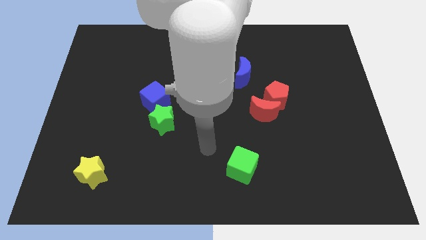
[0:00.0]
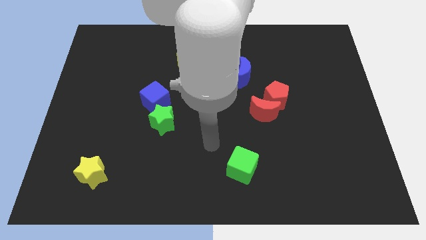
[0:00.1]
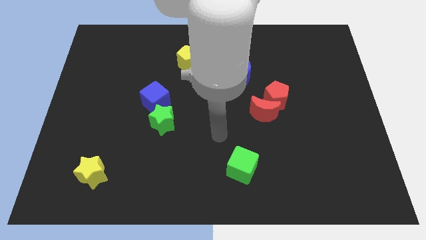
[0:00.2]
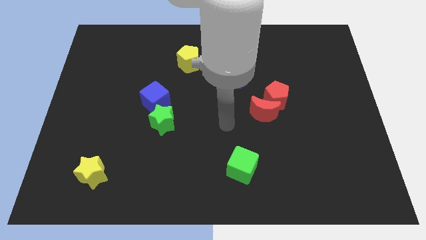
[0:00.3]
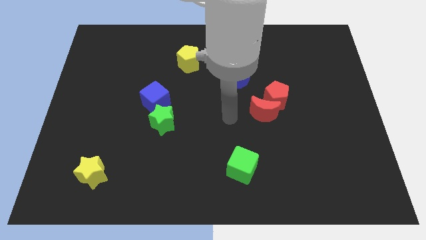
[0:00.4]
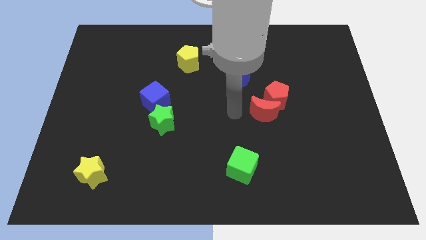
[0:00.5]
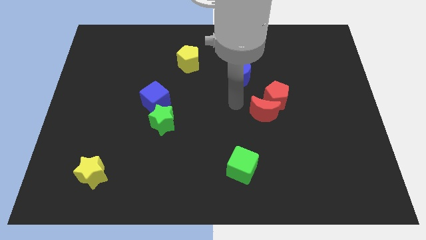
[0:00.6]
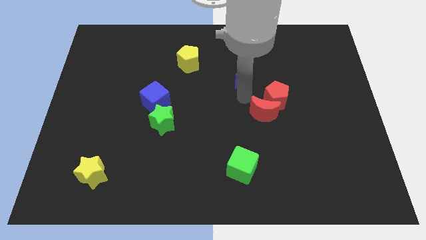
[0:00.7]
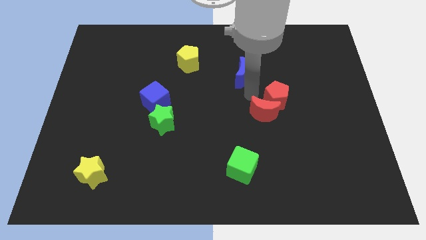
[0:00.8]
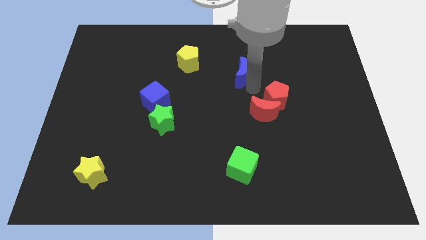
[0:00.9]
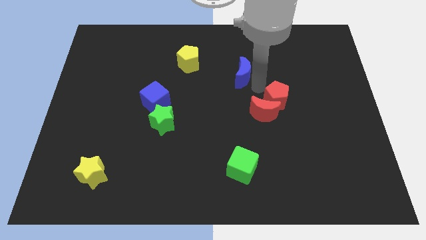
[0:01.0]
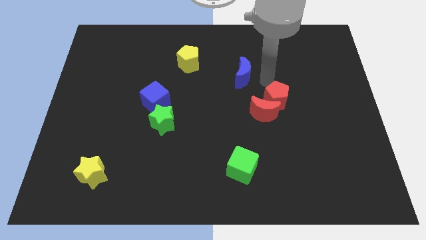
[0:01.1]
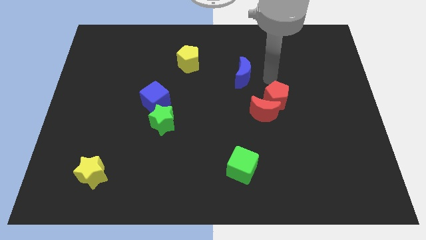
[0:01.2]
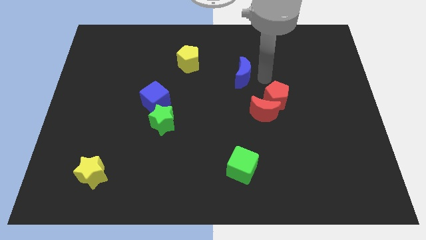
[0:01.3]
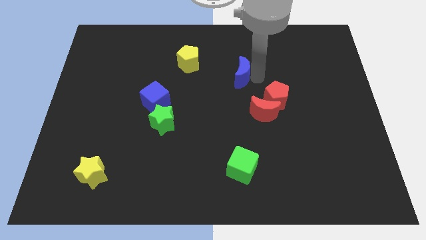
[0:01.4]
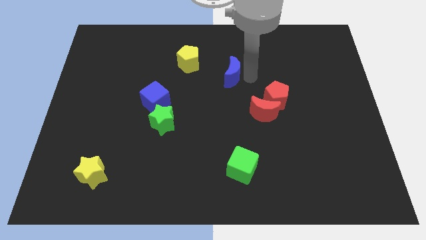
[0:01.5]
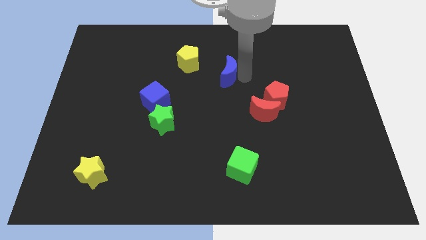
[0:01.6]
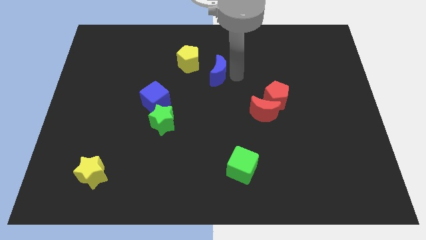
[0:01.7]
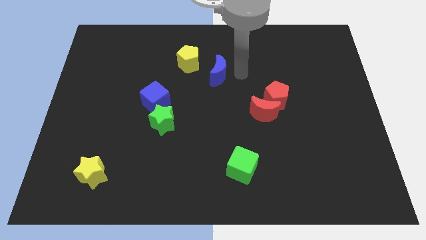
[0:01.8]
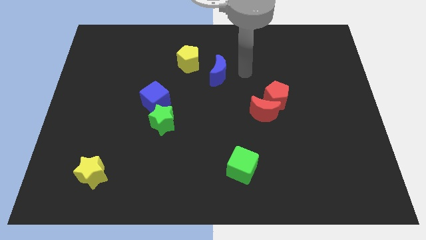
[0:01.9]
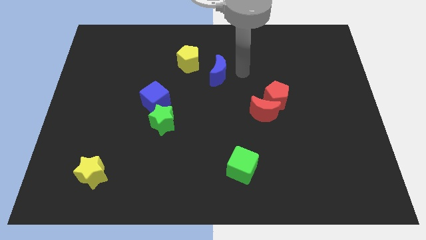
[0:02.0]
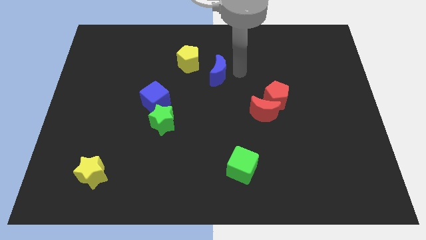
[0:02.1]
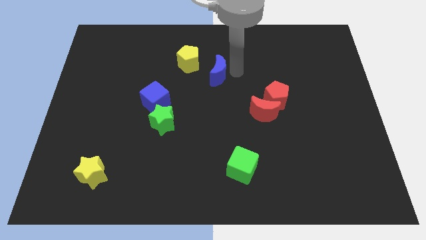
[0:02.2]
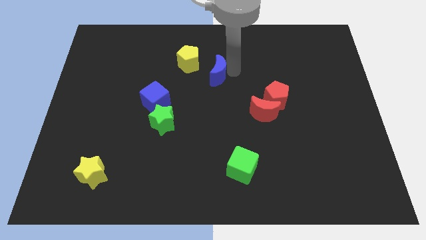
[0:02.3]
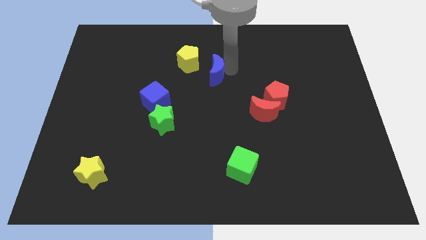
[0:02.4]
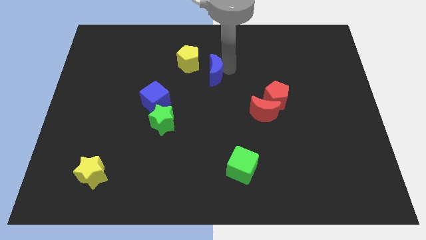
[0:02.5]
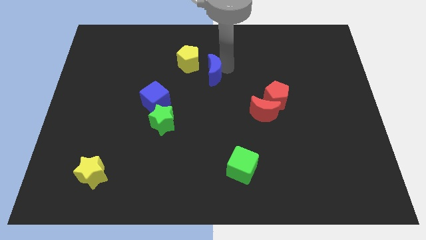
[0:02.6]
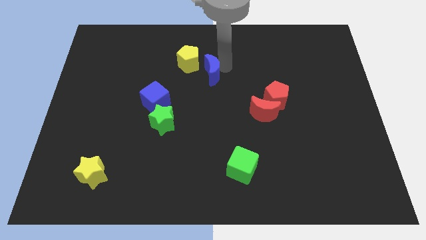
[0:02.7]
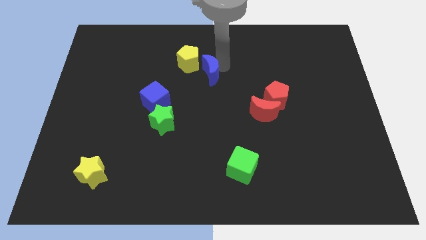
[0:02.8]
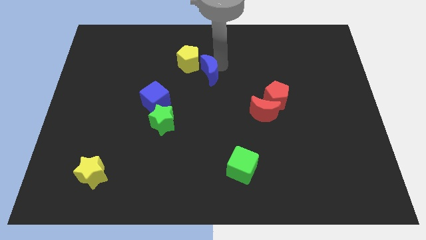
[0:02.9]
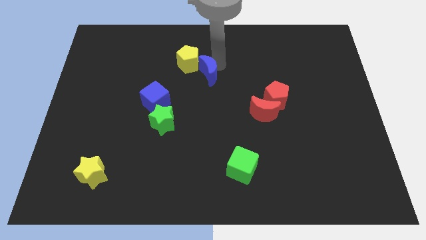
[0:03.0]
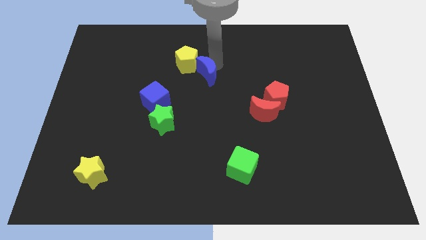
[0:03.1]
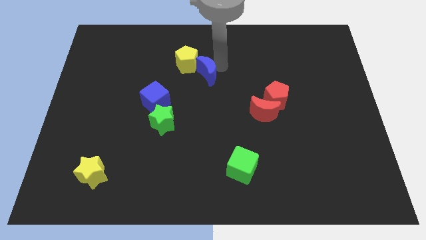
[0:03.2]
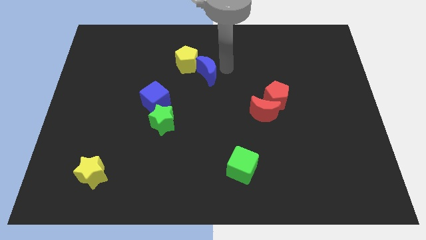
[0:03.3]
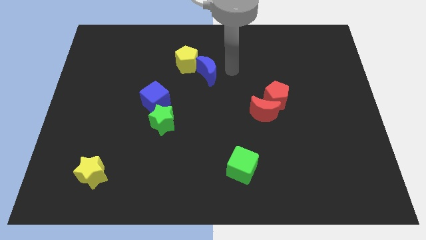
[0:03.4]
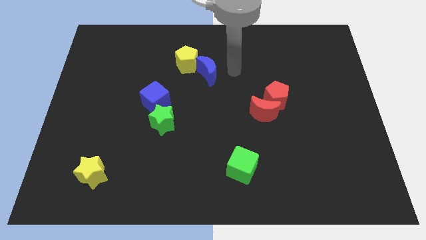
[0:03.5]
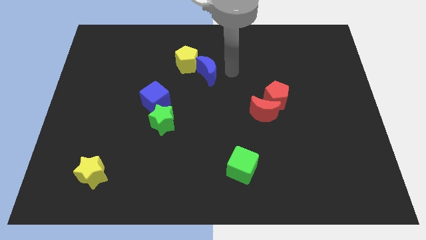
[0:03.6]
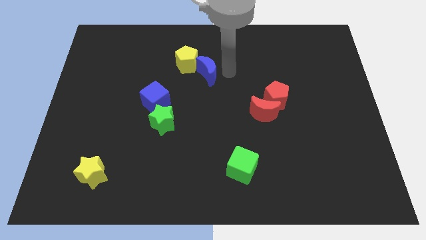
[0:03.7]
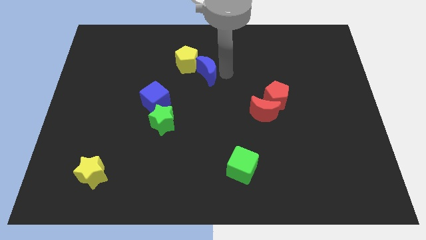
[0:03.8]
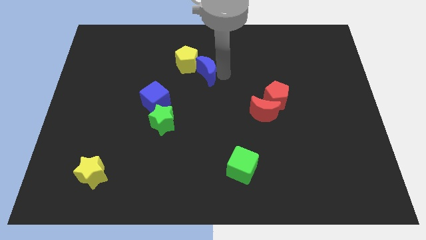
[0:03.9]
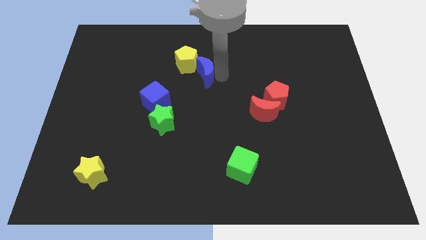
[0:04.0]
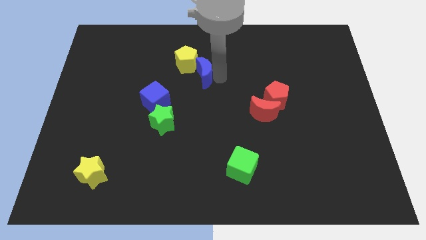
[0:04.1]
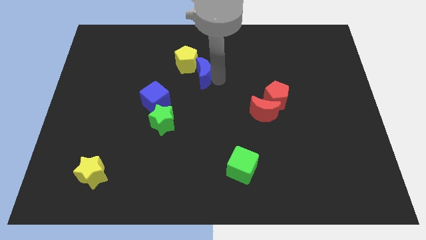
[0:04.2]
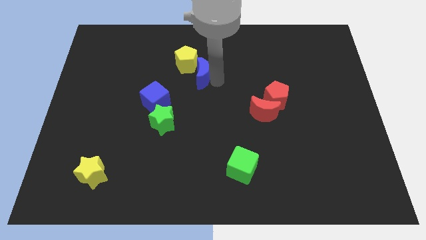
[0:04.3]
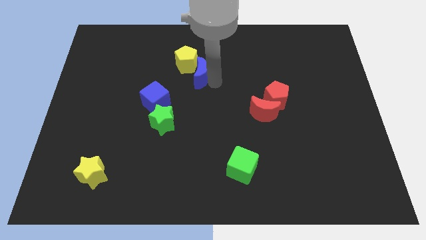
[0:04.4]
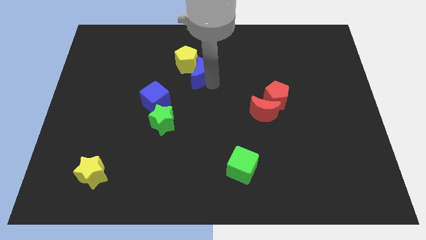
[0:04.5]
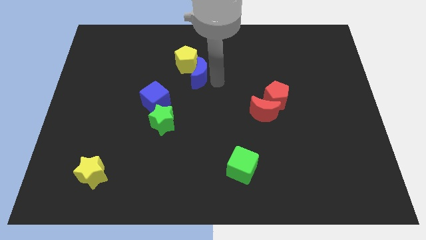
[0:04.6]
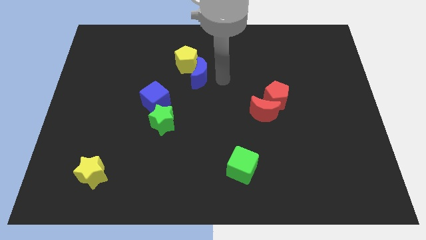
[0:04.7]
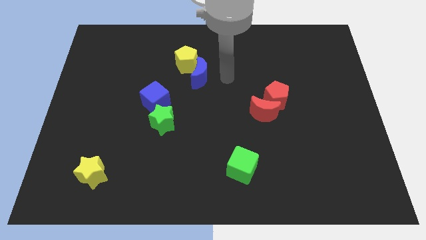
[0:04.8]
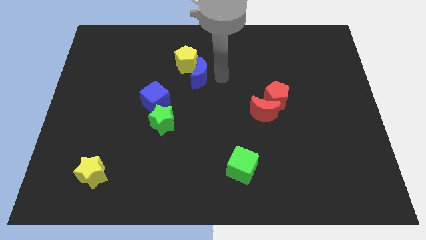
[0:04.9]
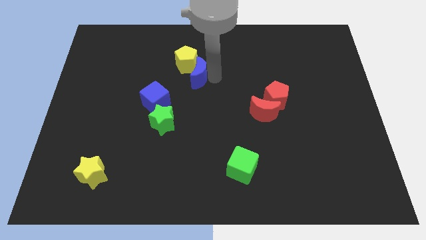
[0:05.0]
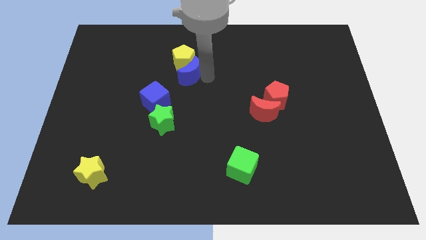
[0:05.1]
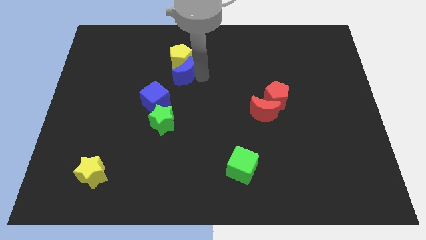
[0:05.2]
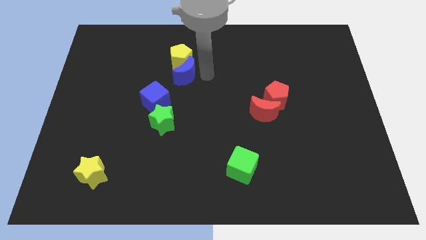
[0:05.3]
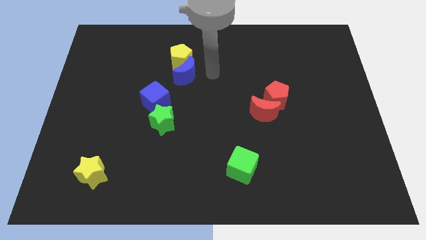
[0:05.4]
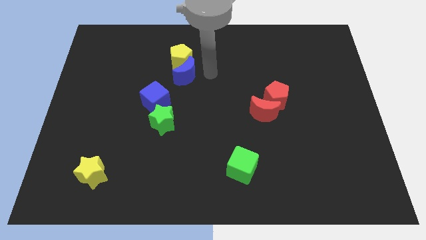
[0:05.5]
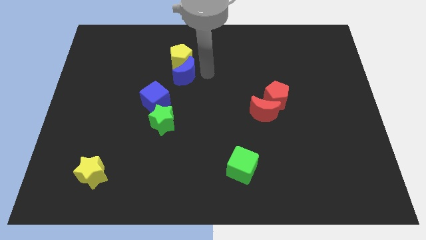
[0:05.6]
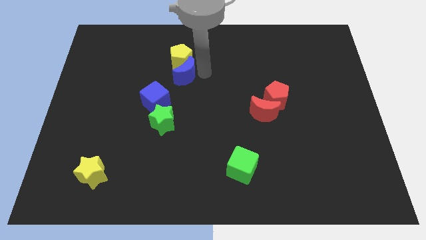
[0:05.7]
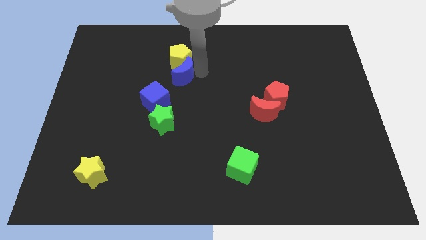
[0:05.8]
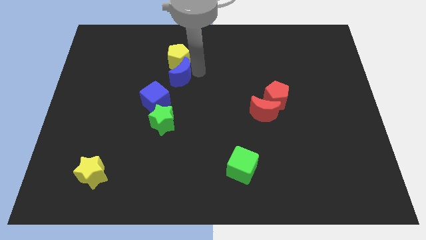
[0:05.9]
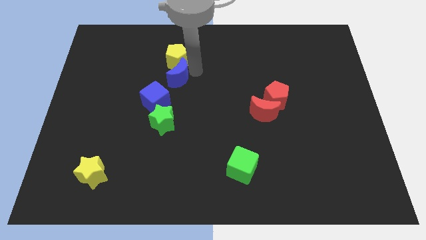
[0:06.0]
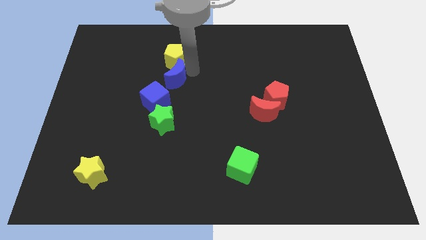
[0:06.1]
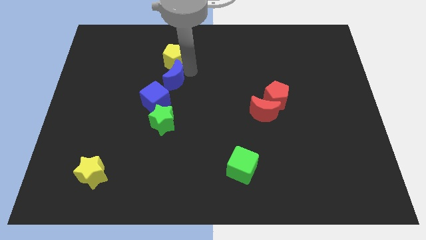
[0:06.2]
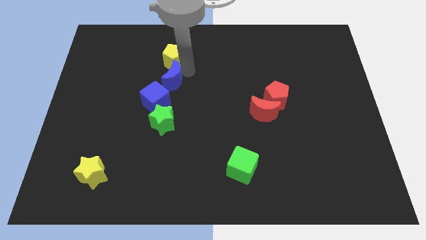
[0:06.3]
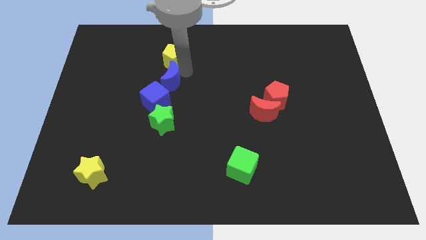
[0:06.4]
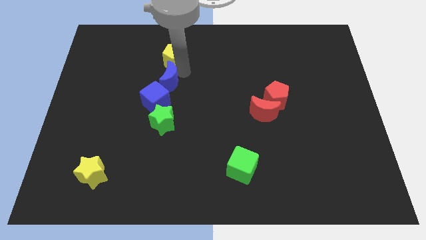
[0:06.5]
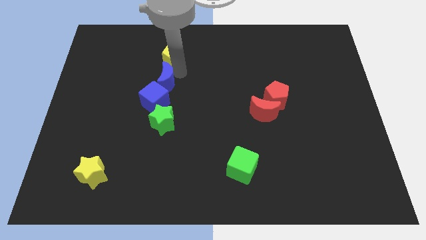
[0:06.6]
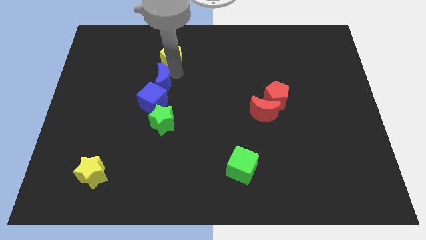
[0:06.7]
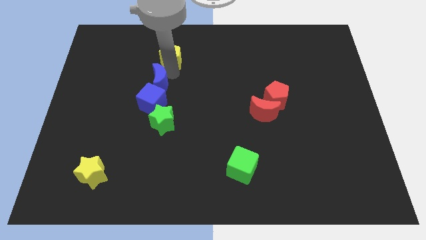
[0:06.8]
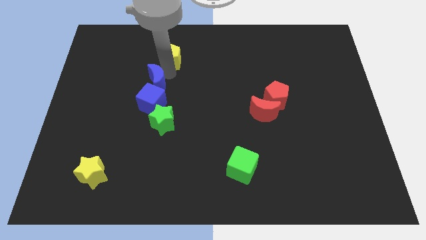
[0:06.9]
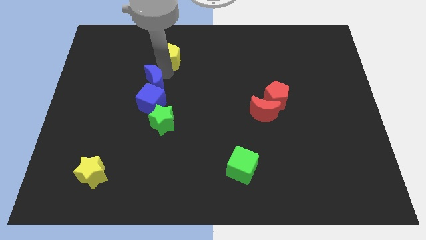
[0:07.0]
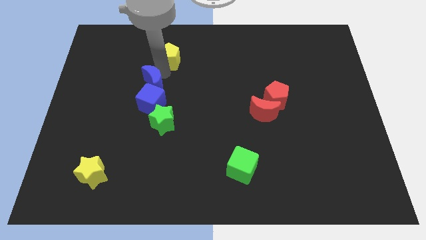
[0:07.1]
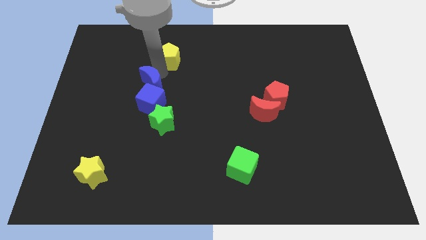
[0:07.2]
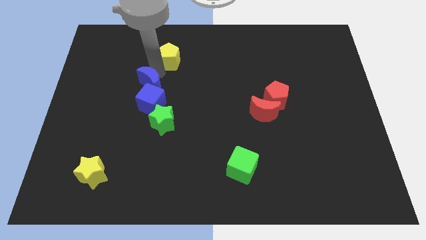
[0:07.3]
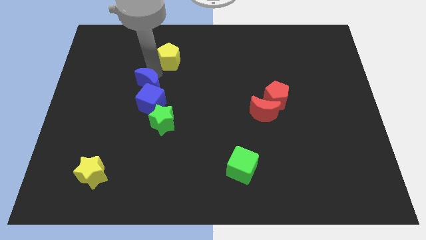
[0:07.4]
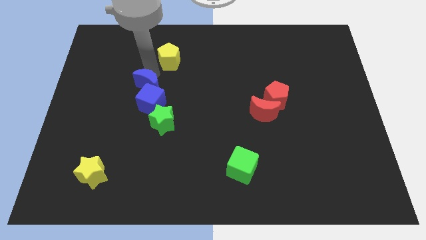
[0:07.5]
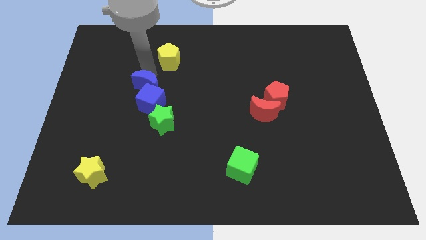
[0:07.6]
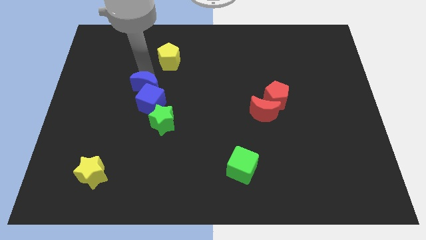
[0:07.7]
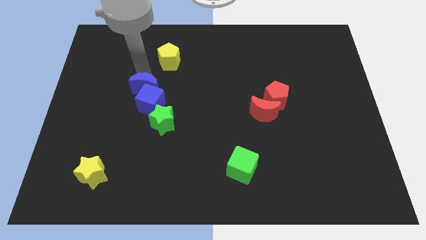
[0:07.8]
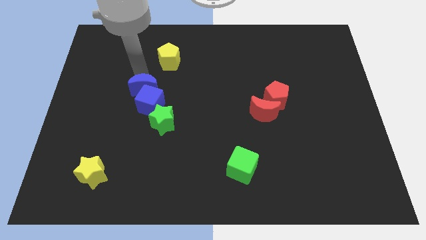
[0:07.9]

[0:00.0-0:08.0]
push the blue moon to the top left side of the green star

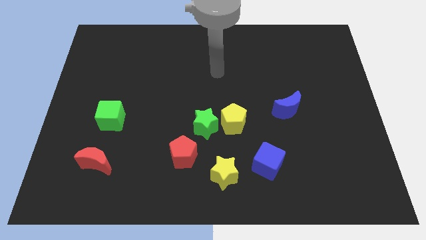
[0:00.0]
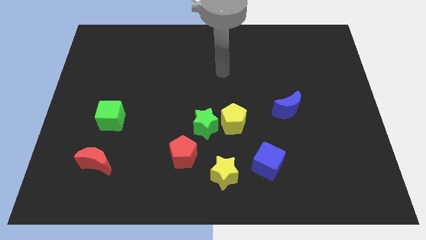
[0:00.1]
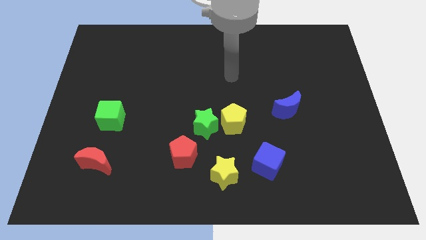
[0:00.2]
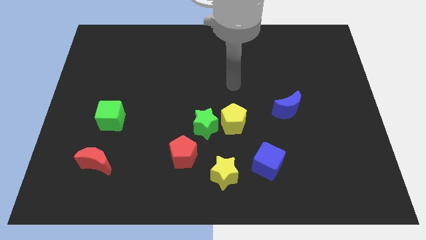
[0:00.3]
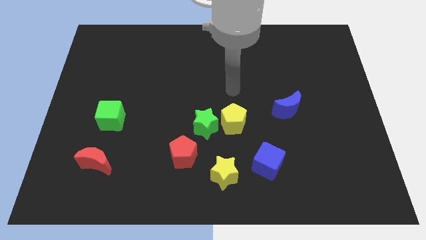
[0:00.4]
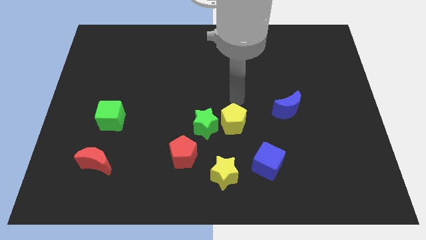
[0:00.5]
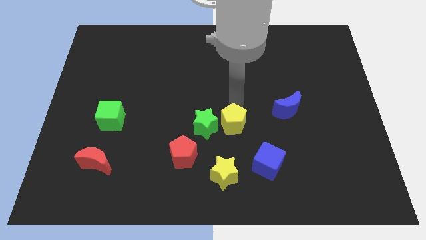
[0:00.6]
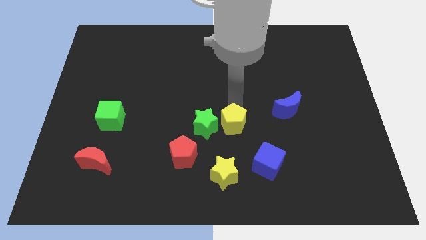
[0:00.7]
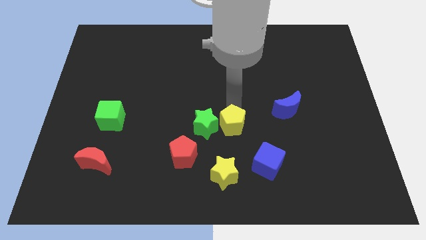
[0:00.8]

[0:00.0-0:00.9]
put the yellow pentagon to the bottom right of the green star

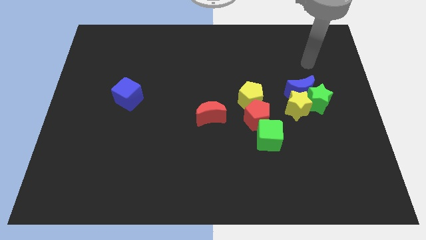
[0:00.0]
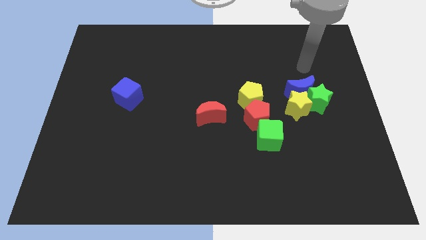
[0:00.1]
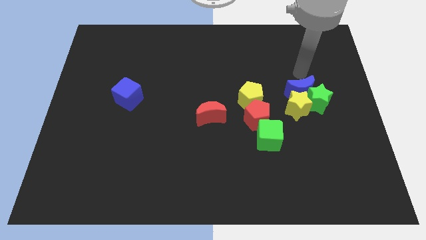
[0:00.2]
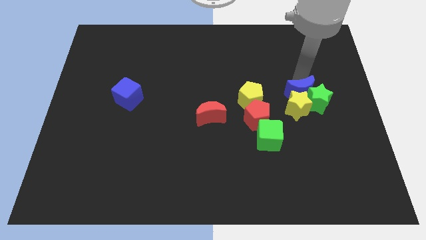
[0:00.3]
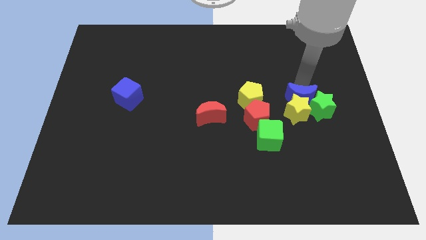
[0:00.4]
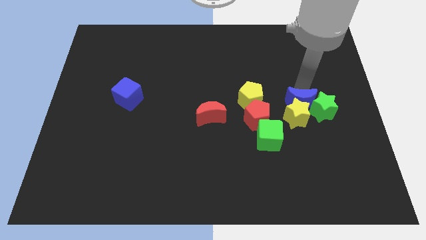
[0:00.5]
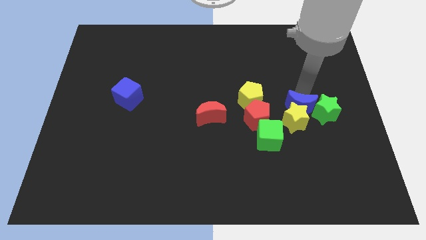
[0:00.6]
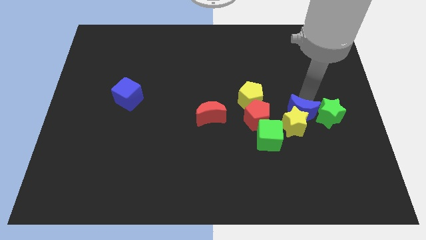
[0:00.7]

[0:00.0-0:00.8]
push the yellow star to the bottom right side of the red pentagon
